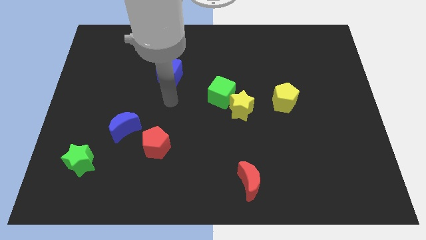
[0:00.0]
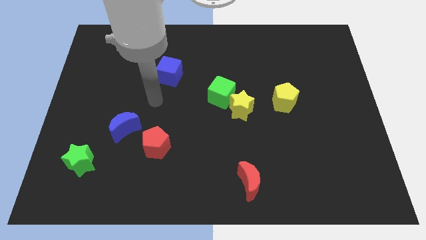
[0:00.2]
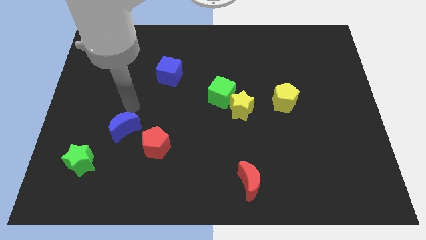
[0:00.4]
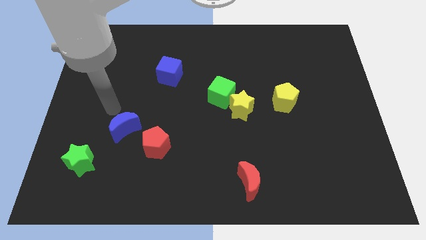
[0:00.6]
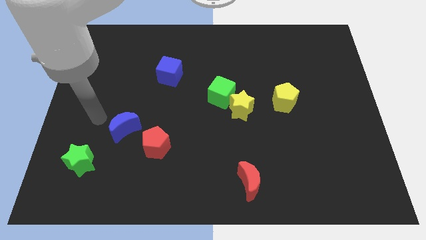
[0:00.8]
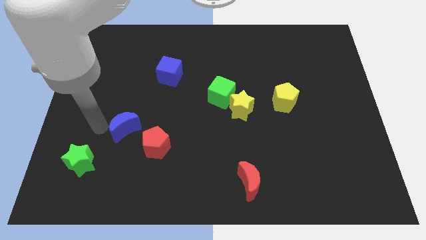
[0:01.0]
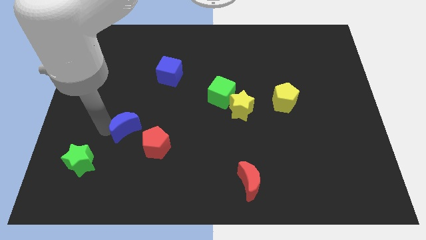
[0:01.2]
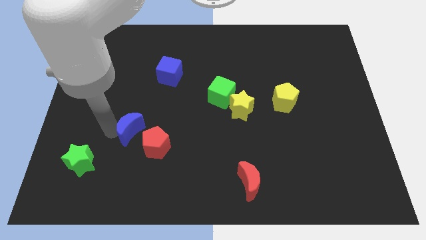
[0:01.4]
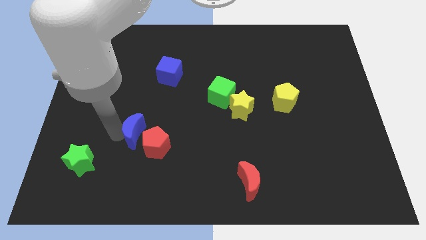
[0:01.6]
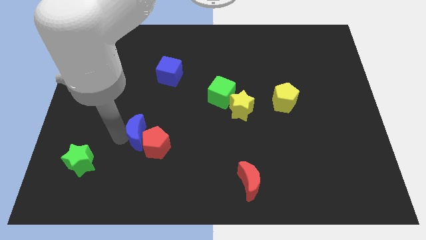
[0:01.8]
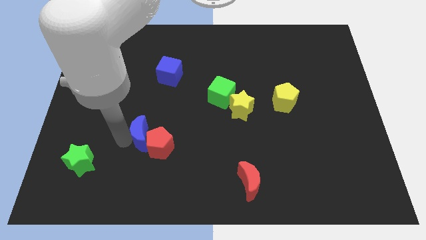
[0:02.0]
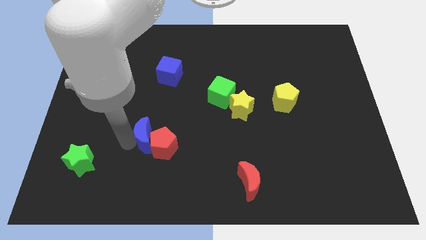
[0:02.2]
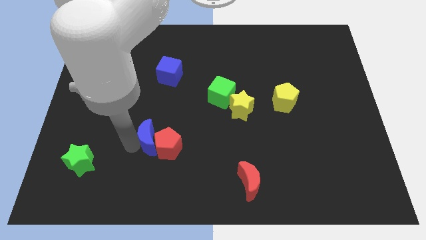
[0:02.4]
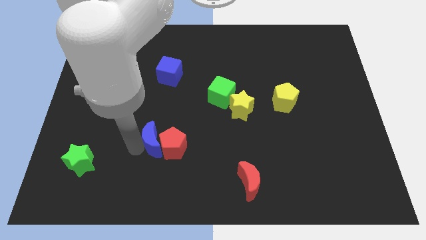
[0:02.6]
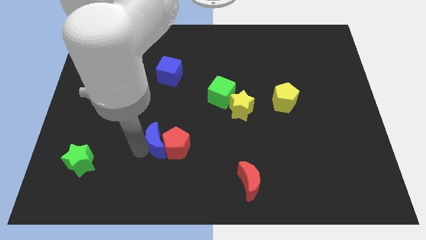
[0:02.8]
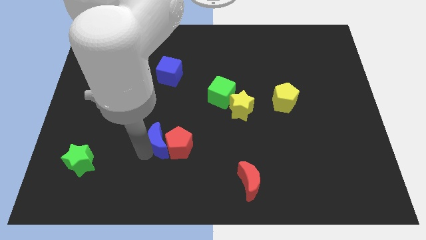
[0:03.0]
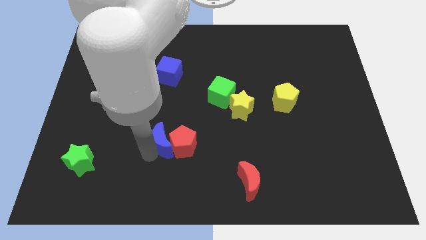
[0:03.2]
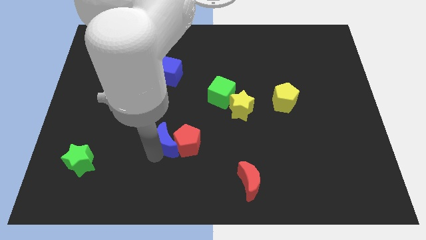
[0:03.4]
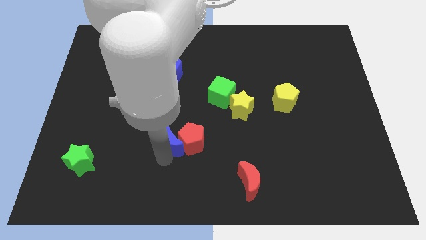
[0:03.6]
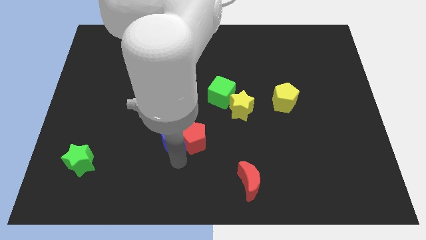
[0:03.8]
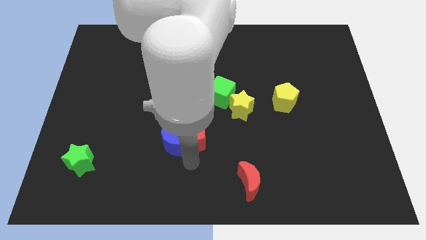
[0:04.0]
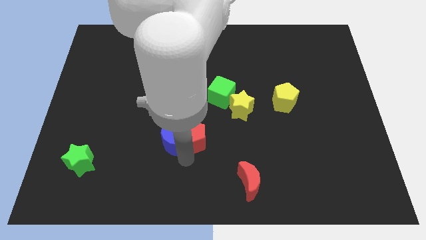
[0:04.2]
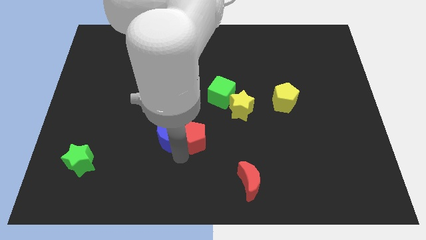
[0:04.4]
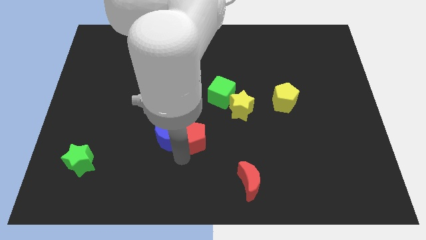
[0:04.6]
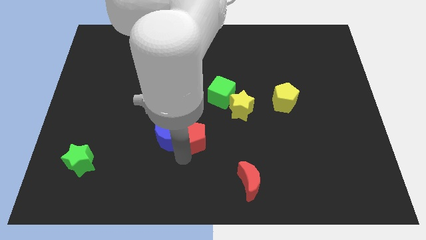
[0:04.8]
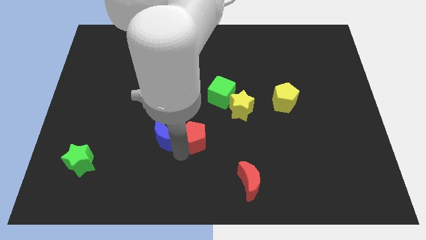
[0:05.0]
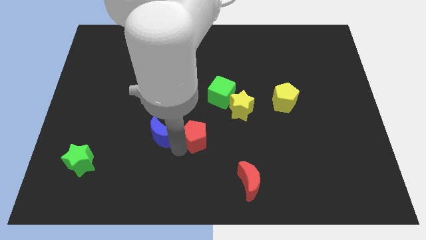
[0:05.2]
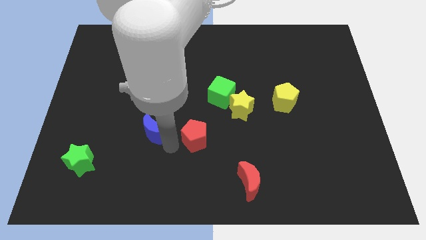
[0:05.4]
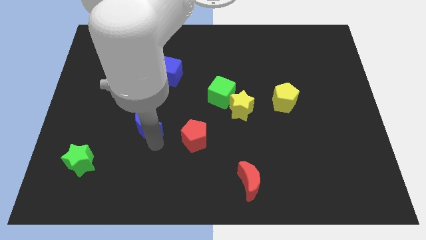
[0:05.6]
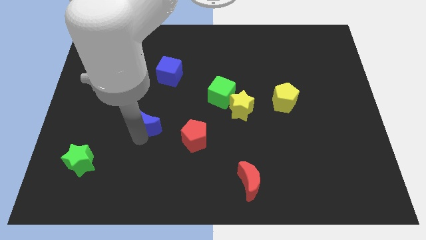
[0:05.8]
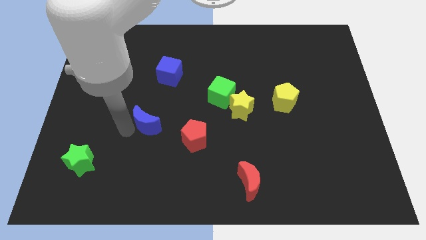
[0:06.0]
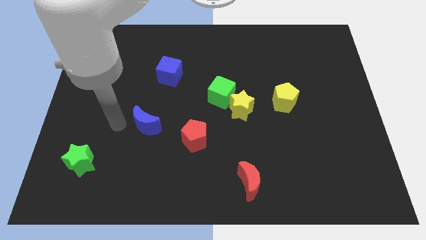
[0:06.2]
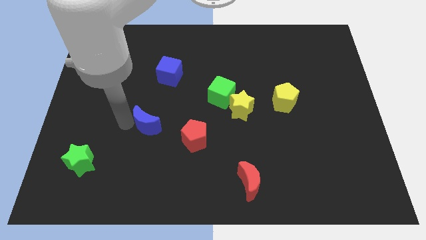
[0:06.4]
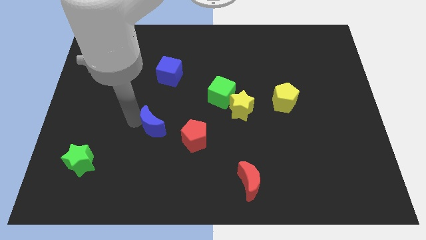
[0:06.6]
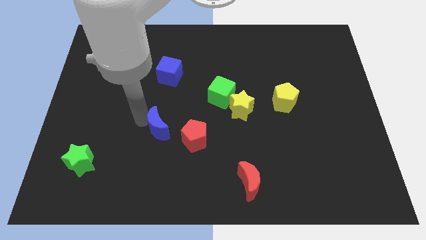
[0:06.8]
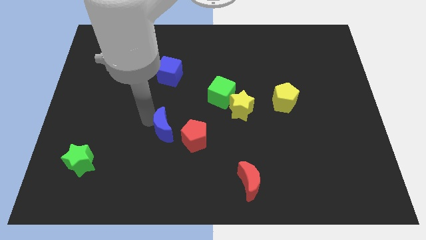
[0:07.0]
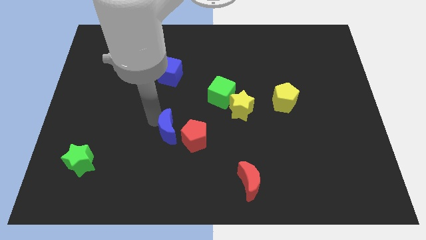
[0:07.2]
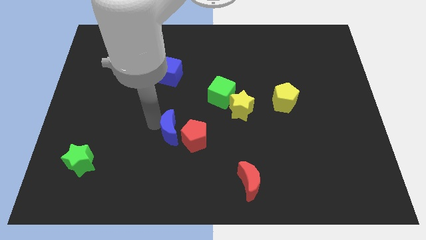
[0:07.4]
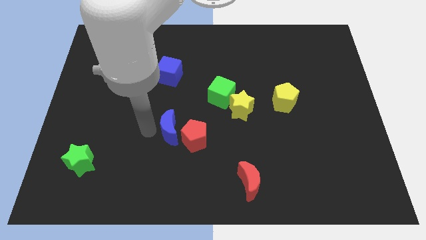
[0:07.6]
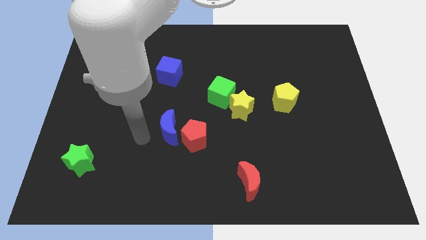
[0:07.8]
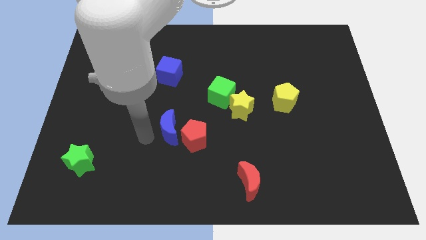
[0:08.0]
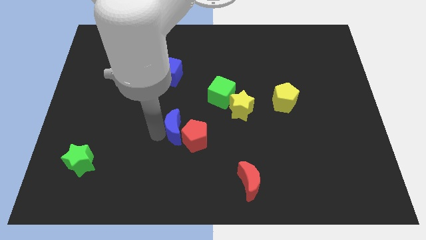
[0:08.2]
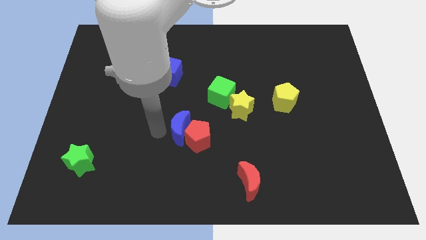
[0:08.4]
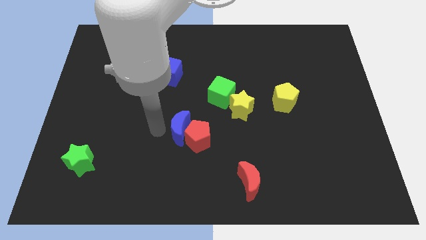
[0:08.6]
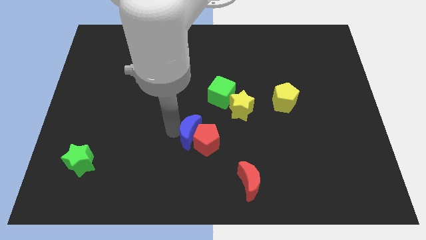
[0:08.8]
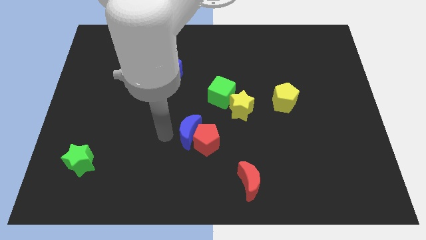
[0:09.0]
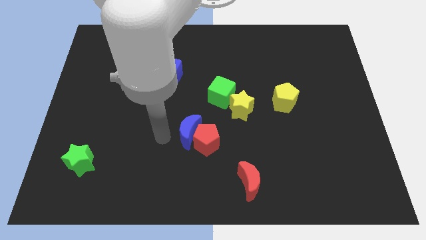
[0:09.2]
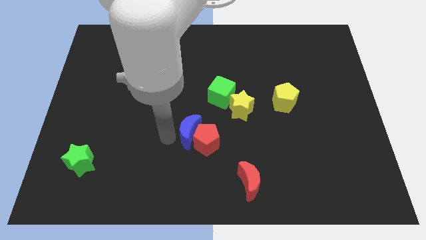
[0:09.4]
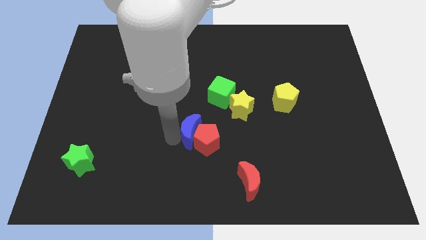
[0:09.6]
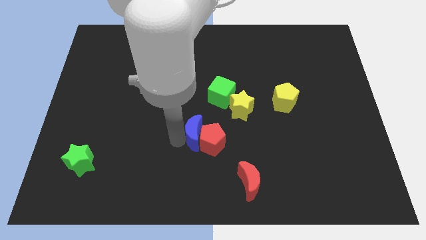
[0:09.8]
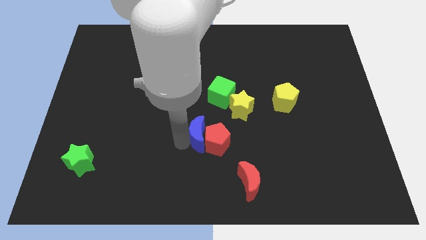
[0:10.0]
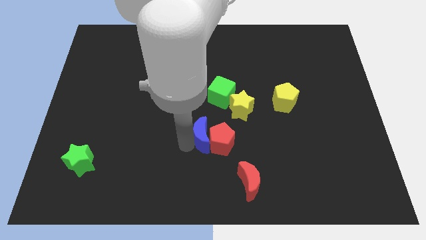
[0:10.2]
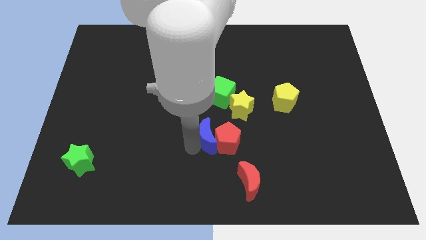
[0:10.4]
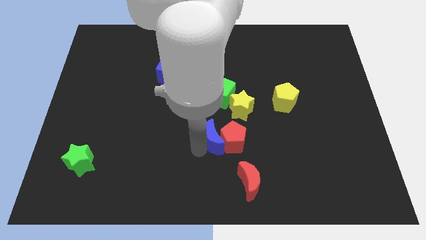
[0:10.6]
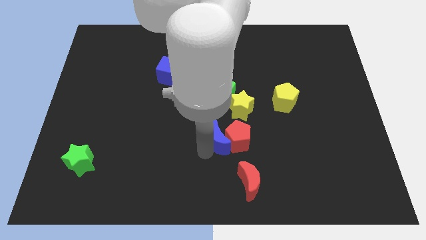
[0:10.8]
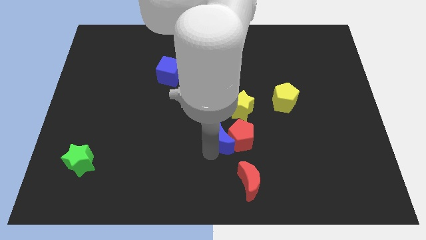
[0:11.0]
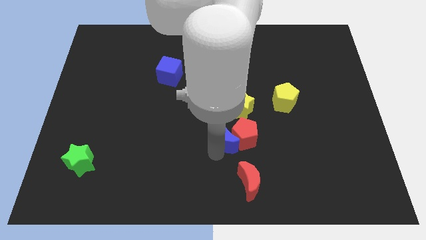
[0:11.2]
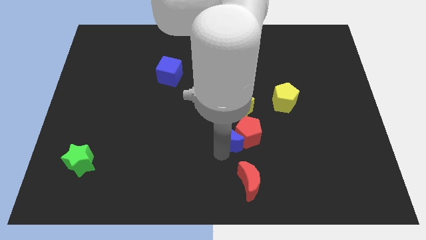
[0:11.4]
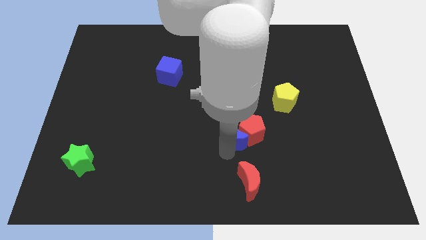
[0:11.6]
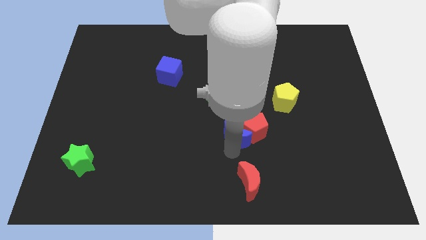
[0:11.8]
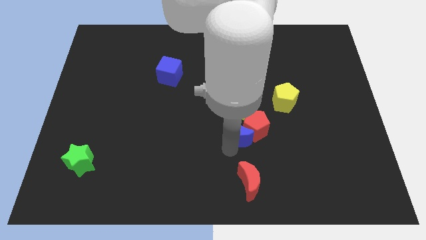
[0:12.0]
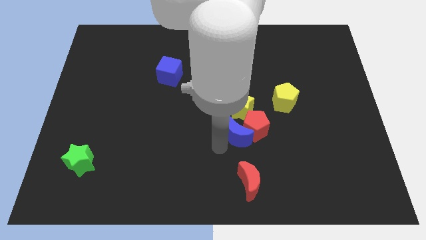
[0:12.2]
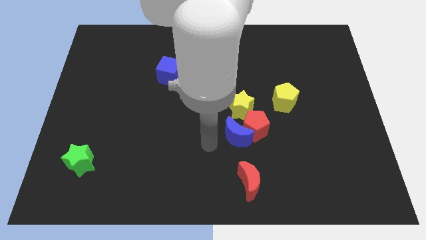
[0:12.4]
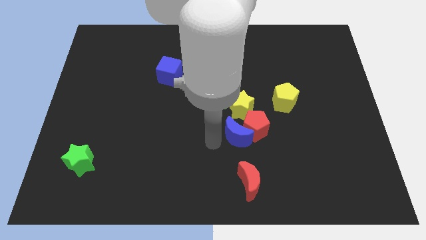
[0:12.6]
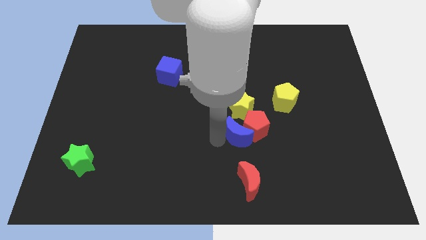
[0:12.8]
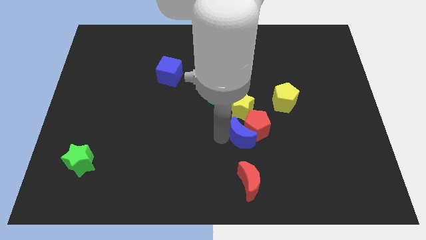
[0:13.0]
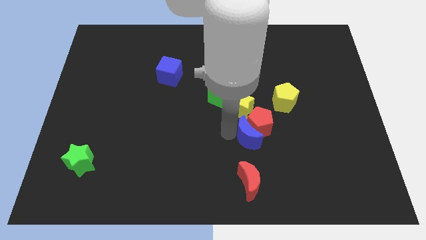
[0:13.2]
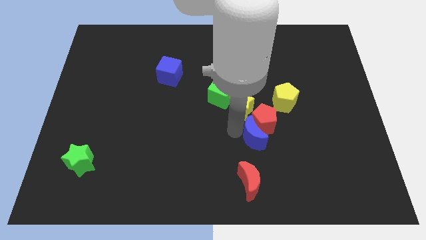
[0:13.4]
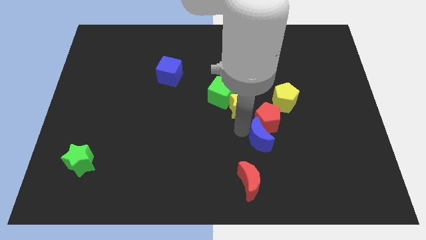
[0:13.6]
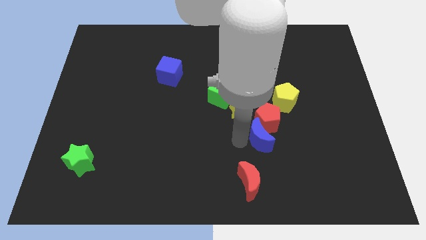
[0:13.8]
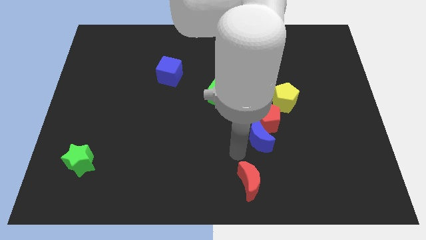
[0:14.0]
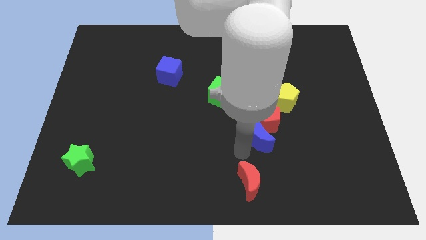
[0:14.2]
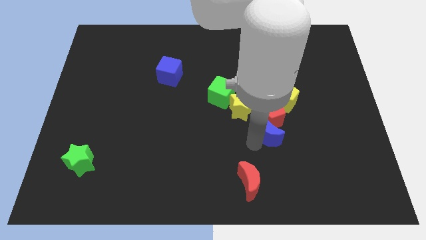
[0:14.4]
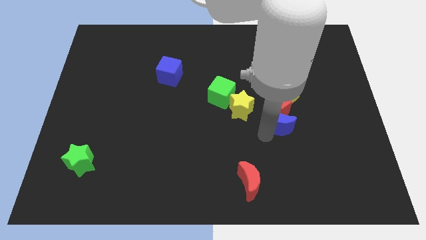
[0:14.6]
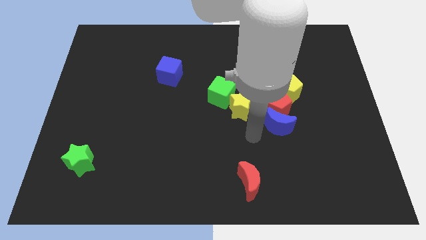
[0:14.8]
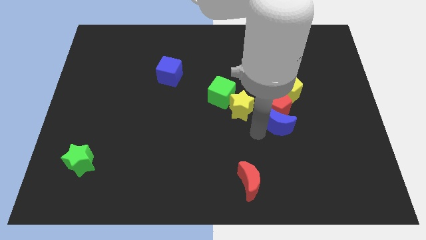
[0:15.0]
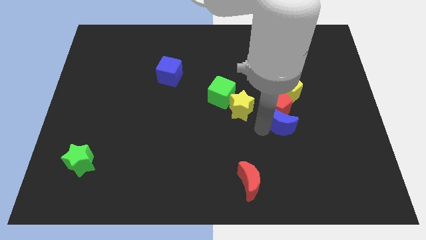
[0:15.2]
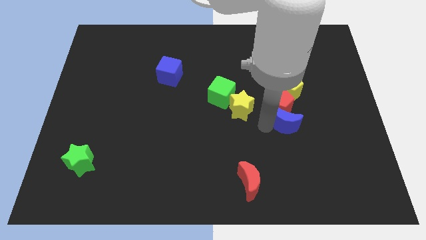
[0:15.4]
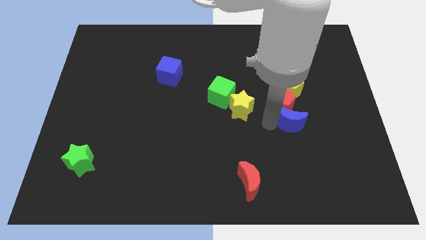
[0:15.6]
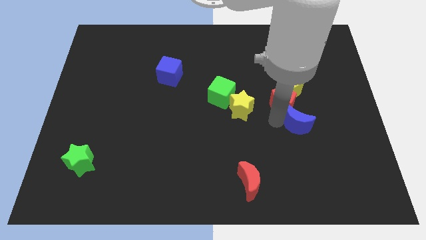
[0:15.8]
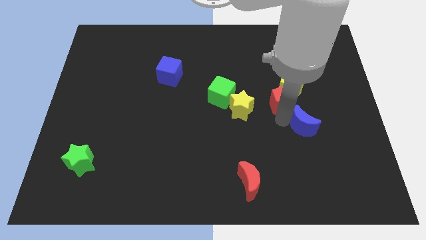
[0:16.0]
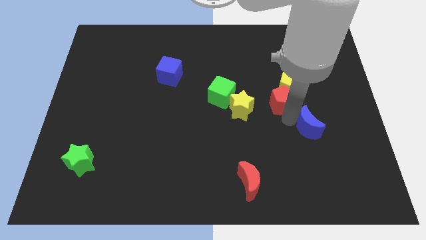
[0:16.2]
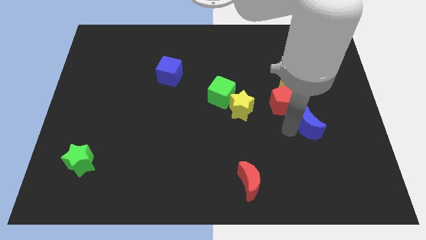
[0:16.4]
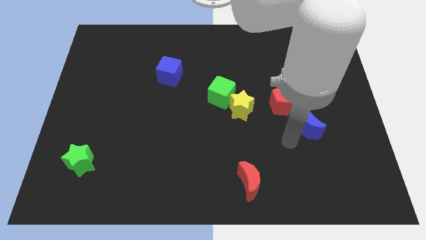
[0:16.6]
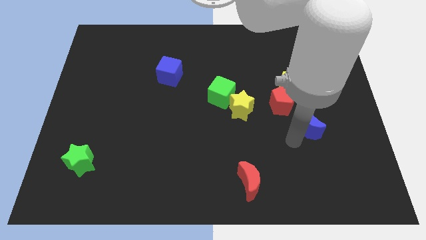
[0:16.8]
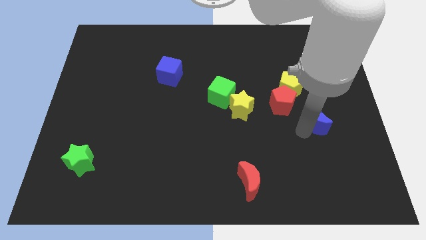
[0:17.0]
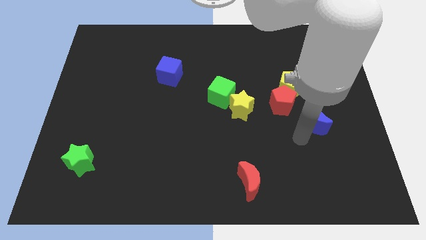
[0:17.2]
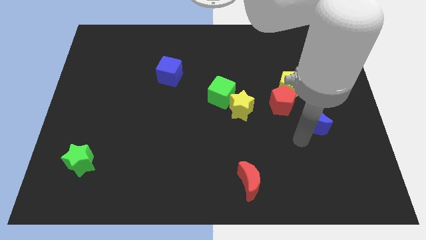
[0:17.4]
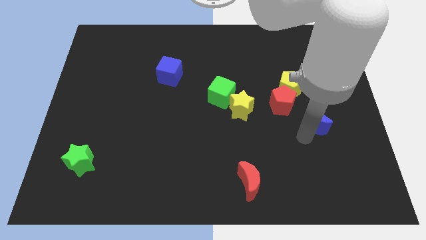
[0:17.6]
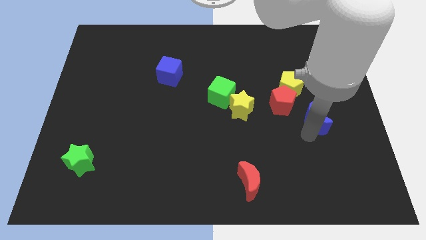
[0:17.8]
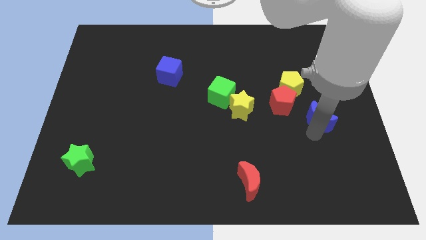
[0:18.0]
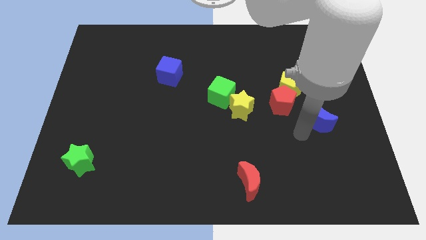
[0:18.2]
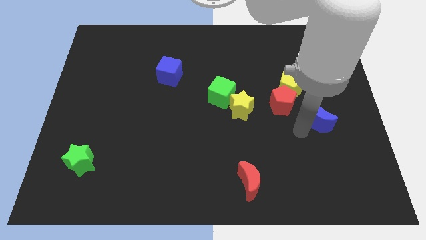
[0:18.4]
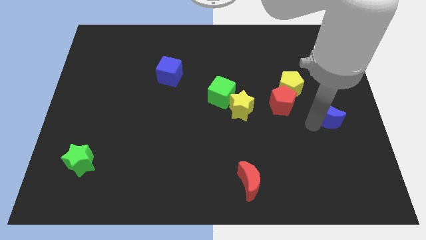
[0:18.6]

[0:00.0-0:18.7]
put the blue moon to the right side of the board
